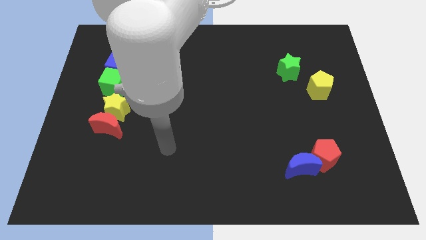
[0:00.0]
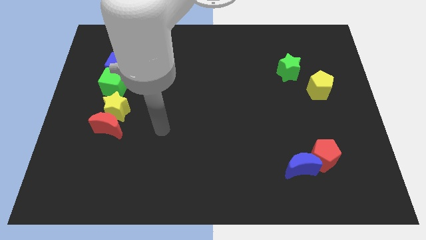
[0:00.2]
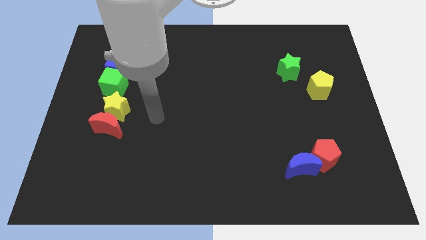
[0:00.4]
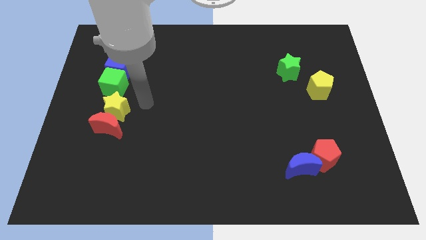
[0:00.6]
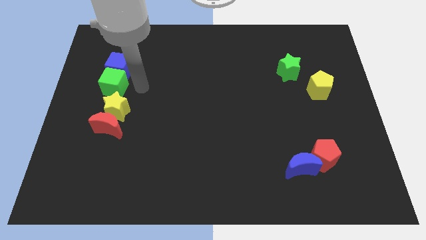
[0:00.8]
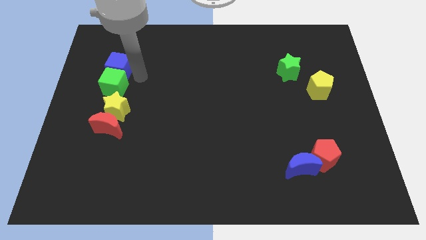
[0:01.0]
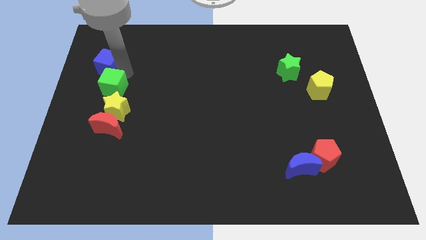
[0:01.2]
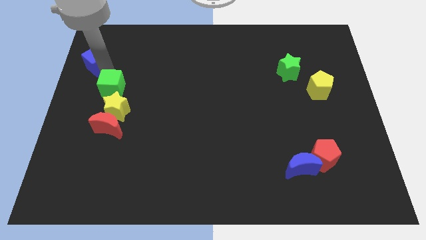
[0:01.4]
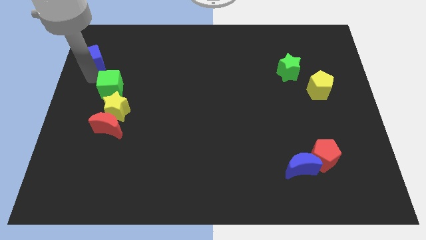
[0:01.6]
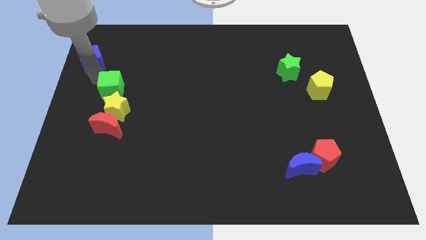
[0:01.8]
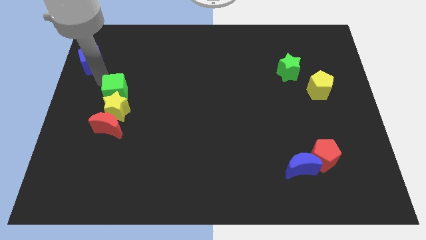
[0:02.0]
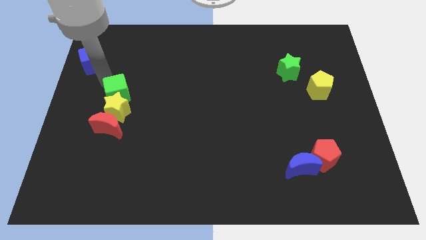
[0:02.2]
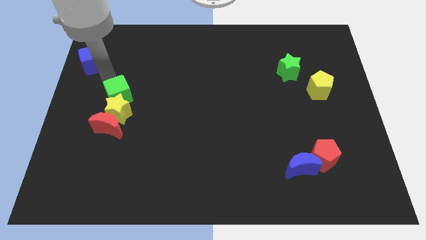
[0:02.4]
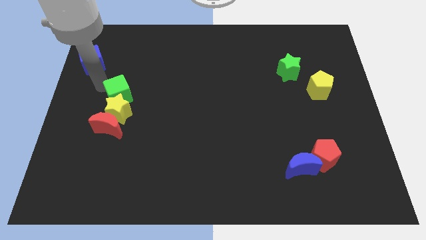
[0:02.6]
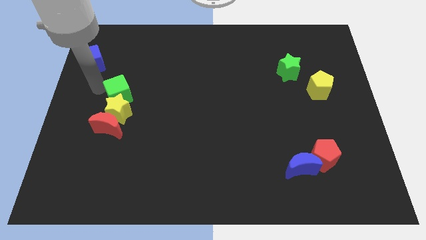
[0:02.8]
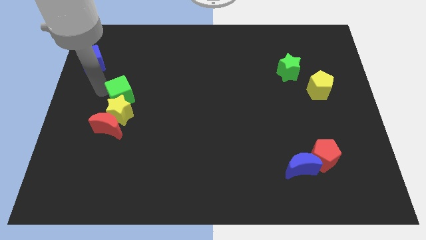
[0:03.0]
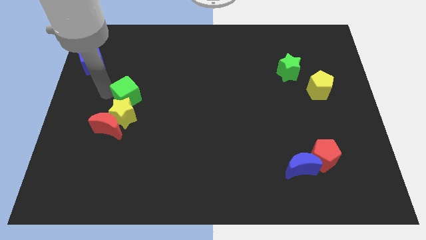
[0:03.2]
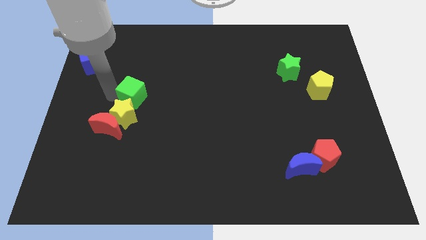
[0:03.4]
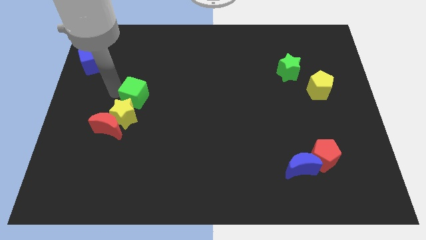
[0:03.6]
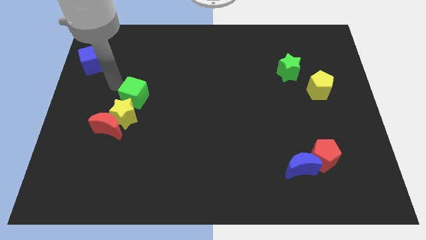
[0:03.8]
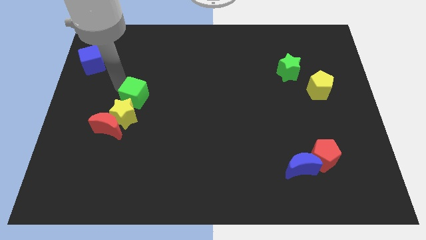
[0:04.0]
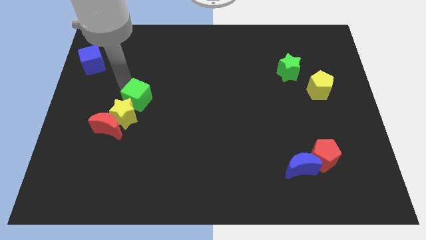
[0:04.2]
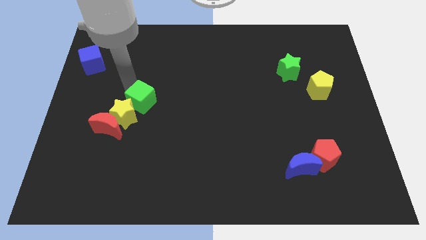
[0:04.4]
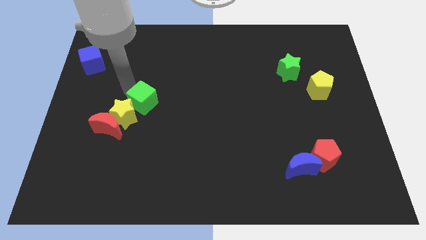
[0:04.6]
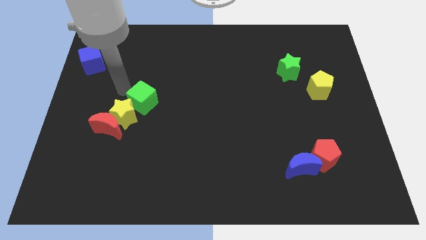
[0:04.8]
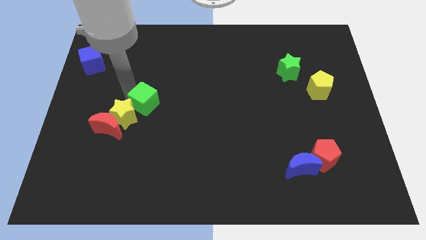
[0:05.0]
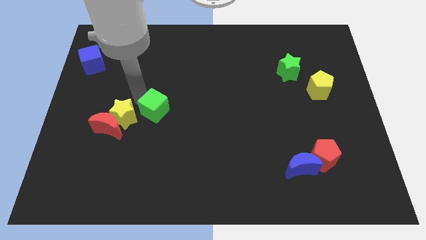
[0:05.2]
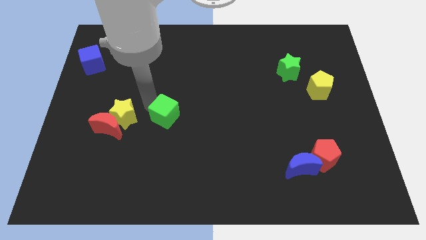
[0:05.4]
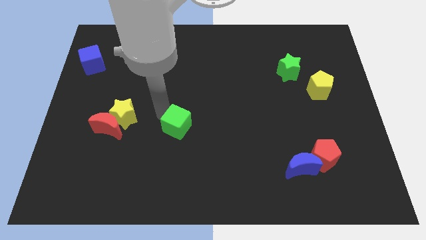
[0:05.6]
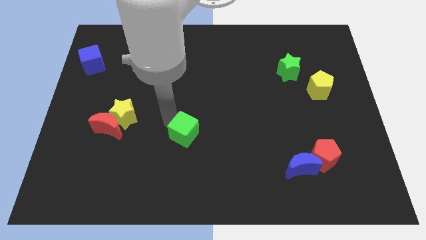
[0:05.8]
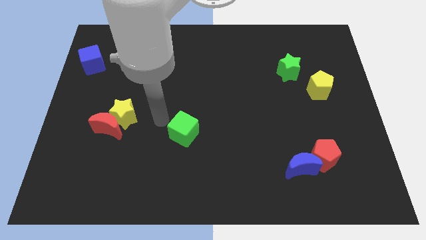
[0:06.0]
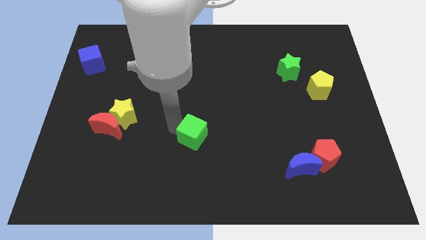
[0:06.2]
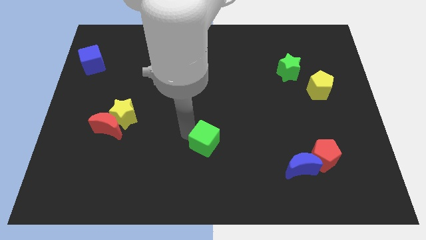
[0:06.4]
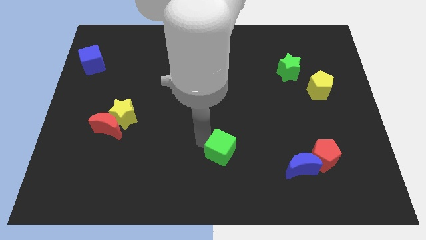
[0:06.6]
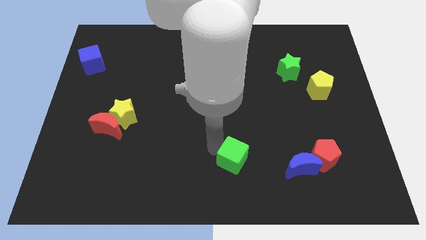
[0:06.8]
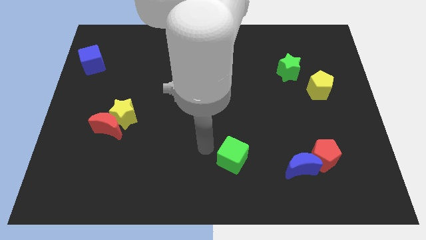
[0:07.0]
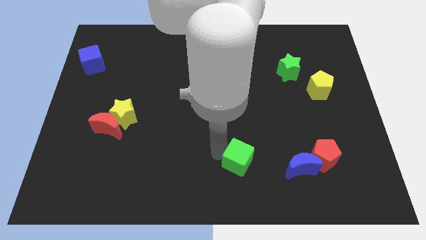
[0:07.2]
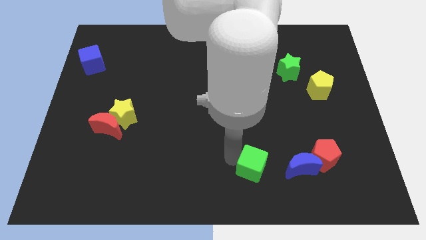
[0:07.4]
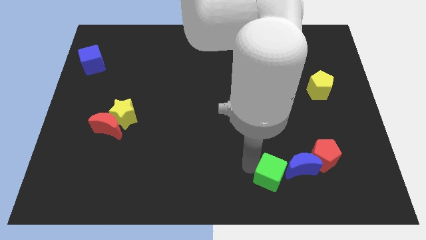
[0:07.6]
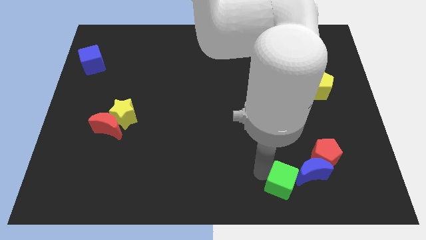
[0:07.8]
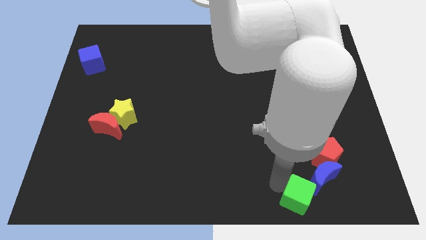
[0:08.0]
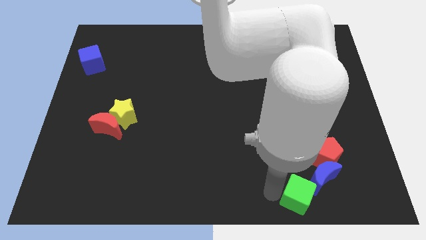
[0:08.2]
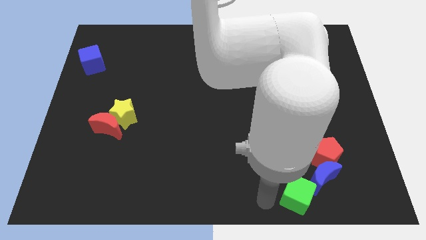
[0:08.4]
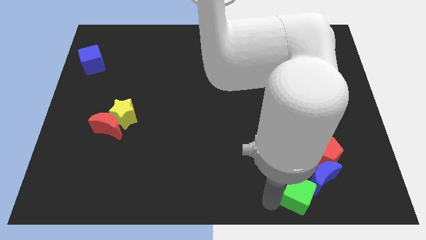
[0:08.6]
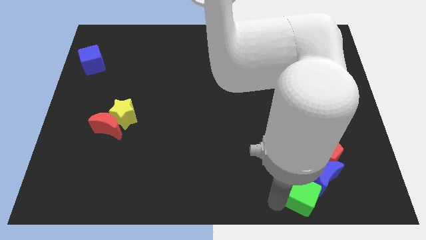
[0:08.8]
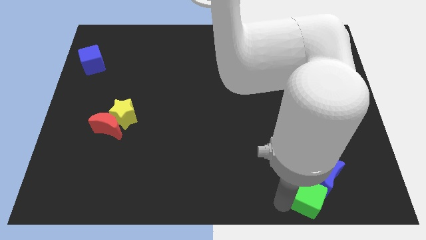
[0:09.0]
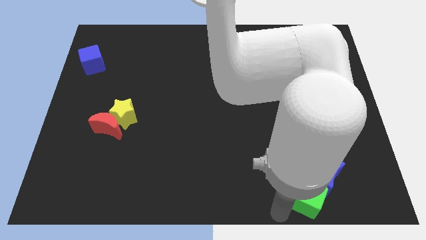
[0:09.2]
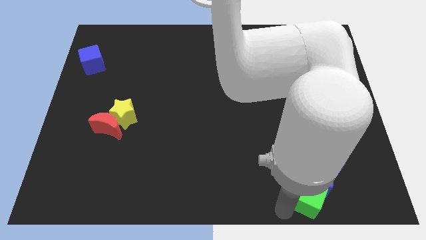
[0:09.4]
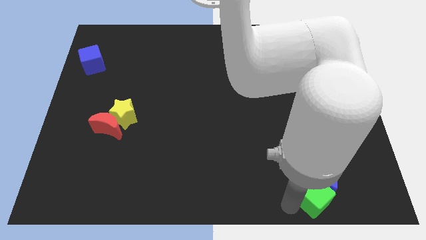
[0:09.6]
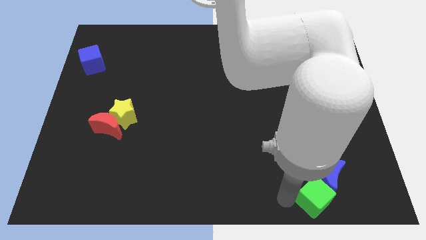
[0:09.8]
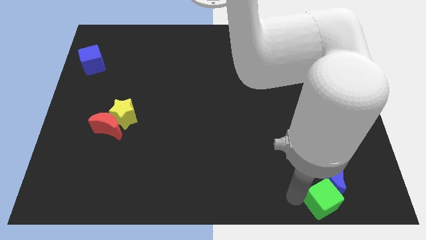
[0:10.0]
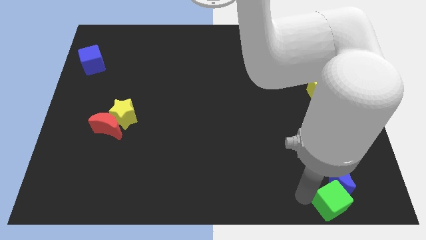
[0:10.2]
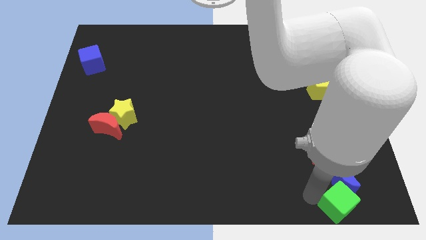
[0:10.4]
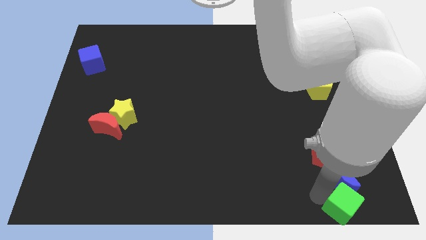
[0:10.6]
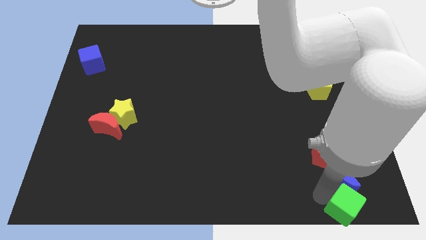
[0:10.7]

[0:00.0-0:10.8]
slide the green cube to the lower right corner

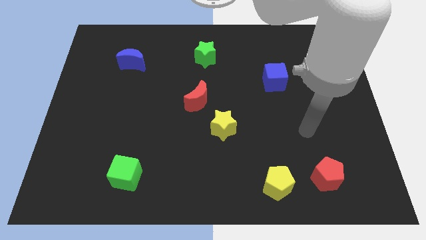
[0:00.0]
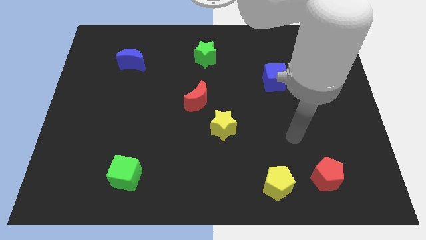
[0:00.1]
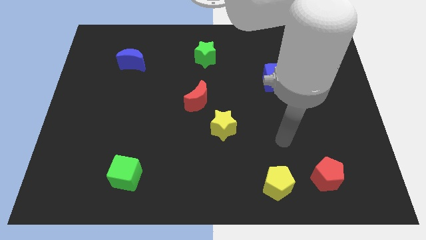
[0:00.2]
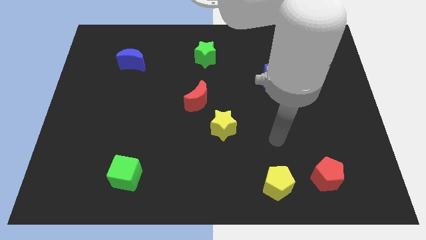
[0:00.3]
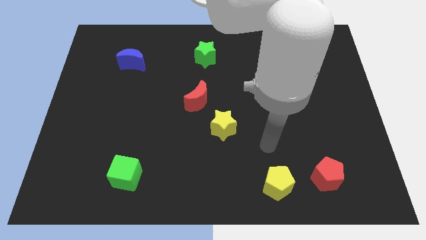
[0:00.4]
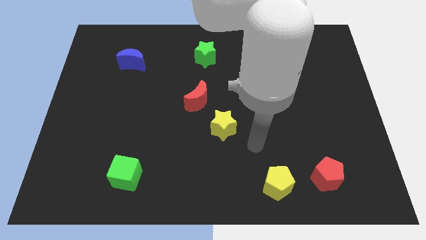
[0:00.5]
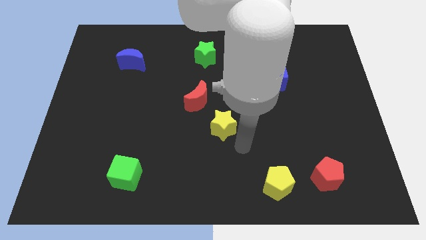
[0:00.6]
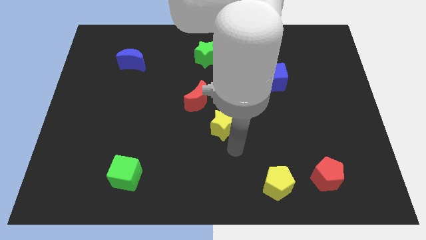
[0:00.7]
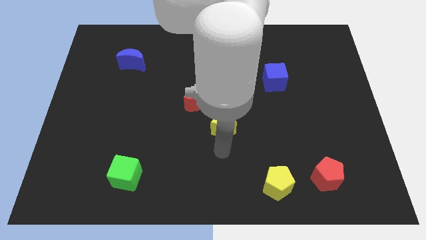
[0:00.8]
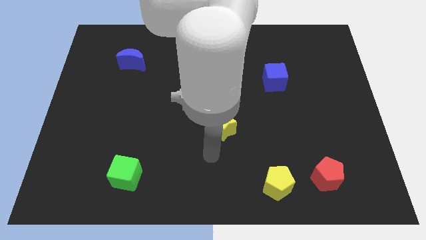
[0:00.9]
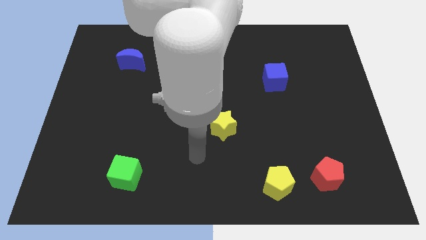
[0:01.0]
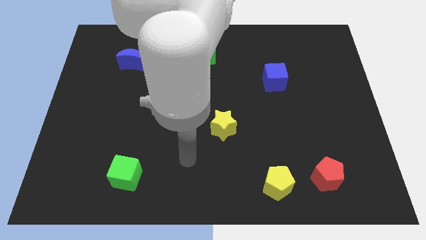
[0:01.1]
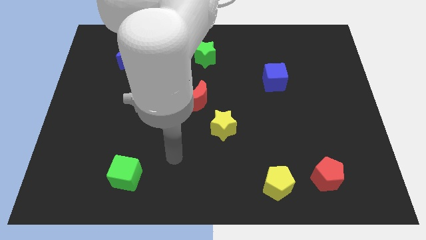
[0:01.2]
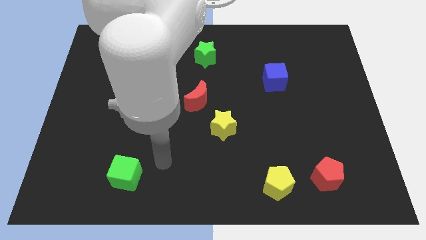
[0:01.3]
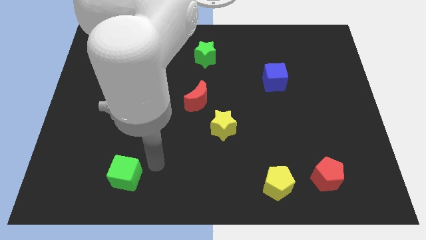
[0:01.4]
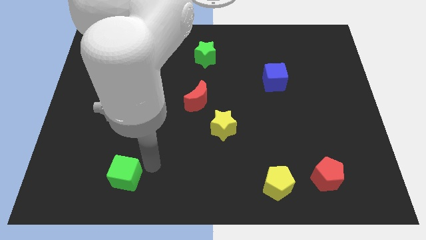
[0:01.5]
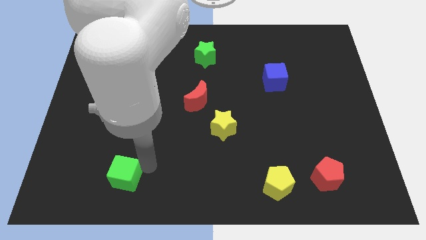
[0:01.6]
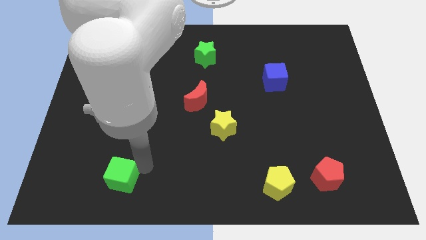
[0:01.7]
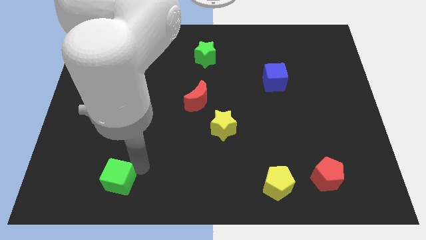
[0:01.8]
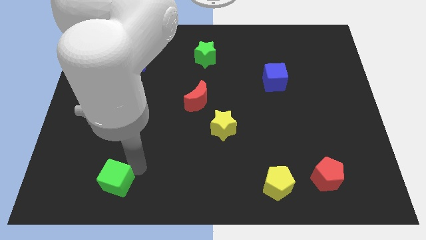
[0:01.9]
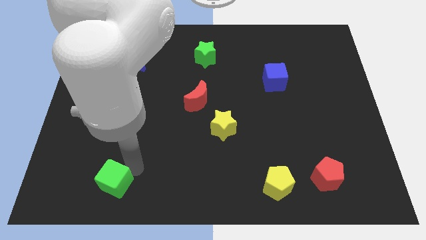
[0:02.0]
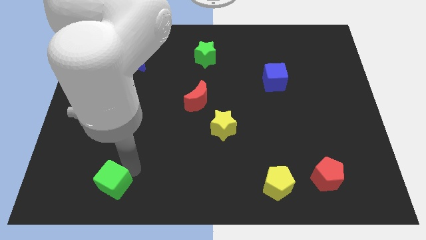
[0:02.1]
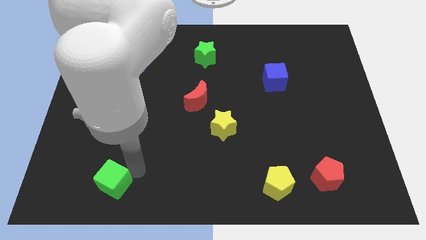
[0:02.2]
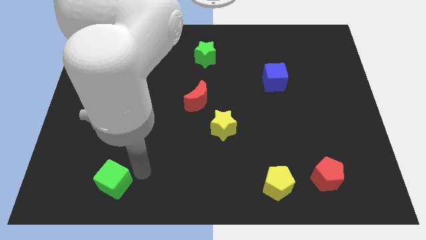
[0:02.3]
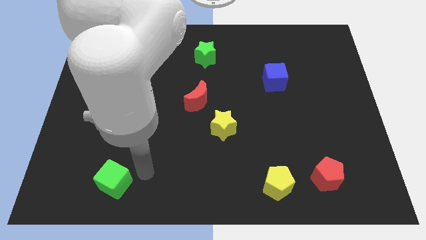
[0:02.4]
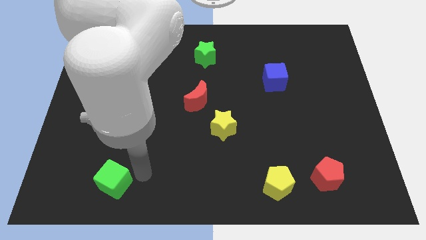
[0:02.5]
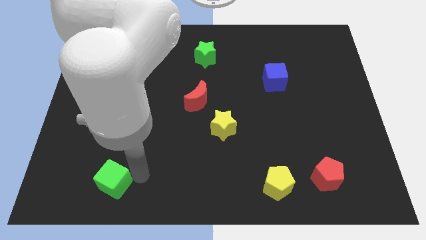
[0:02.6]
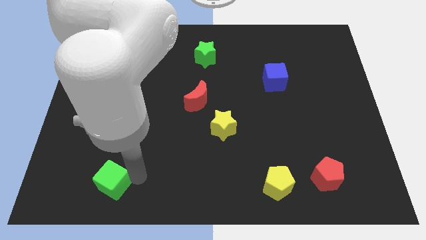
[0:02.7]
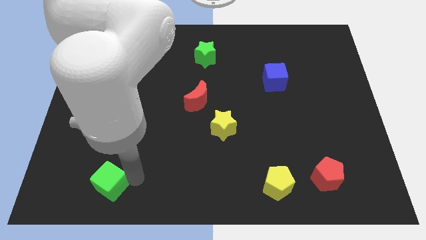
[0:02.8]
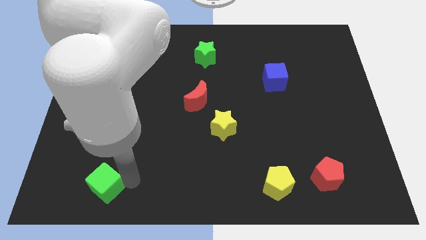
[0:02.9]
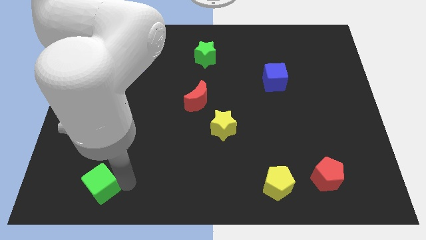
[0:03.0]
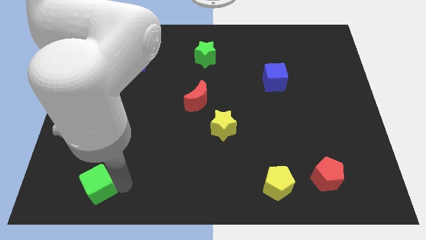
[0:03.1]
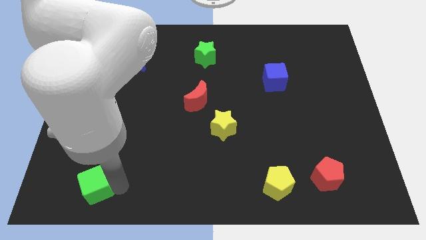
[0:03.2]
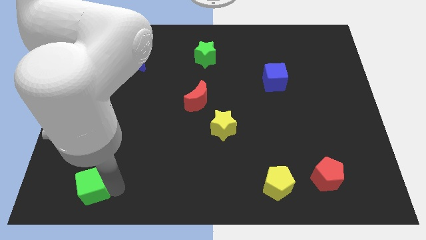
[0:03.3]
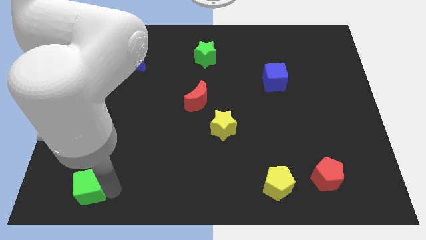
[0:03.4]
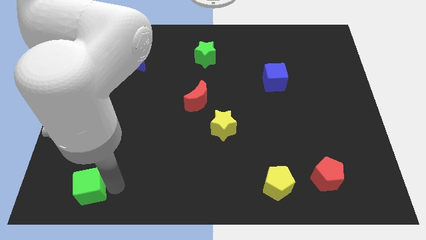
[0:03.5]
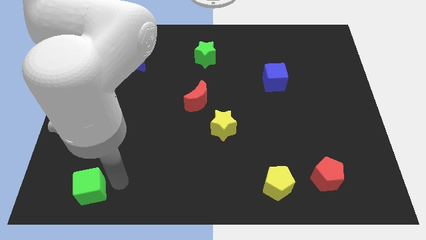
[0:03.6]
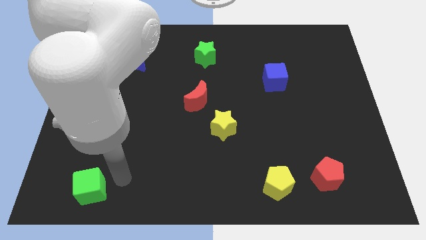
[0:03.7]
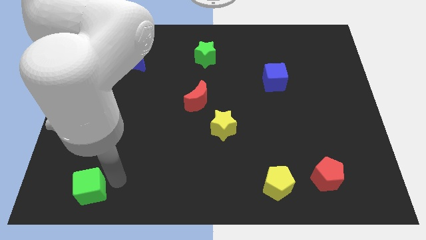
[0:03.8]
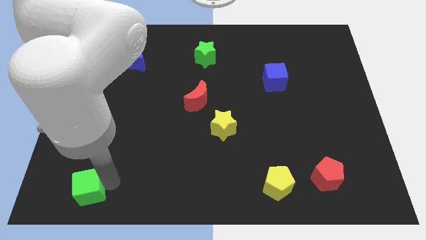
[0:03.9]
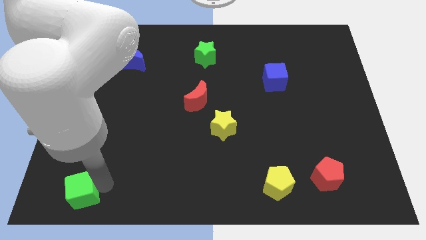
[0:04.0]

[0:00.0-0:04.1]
slide the green cube to the bottom left of the board
